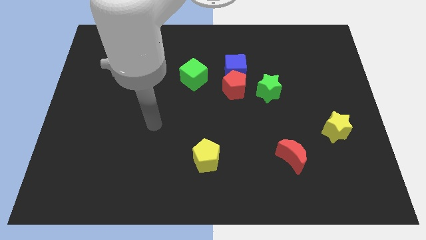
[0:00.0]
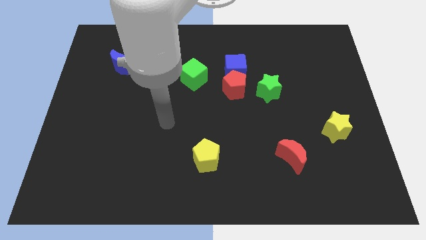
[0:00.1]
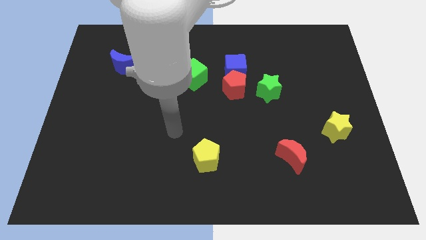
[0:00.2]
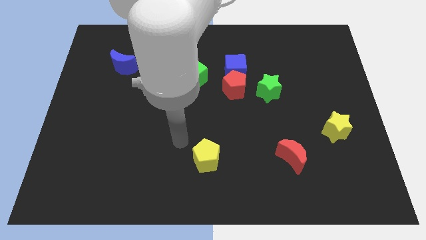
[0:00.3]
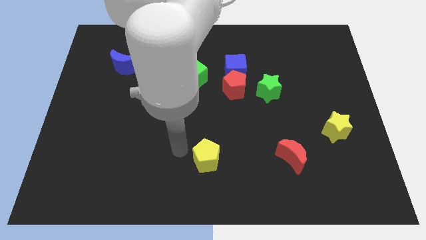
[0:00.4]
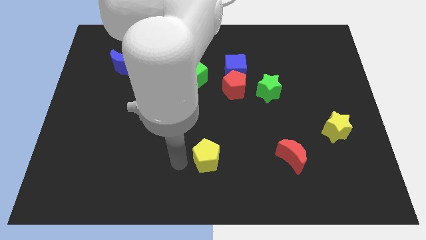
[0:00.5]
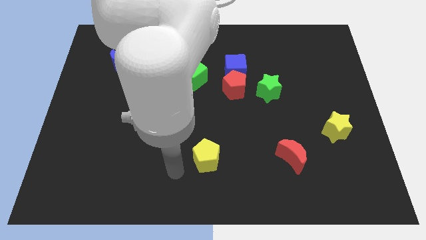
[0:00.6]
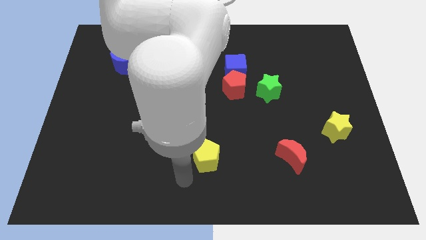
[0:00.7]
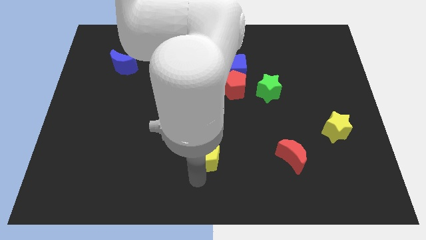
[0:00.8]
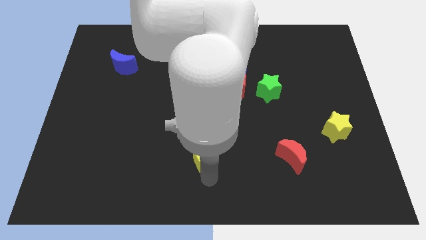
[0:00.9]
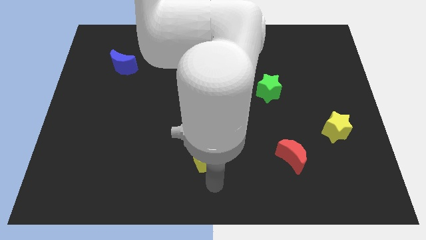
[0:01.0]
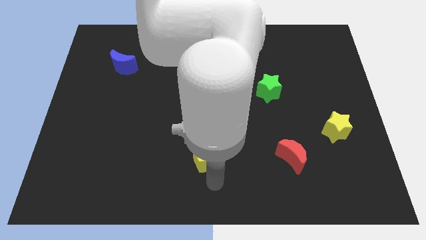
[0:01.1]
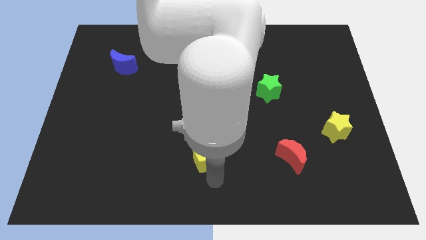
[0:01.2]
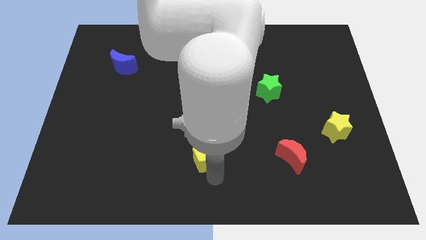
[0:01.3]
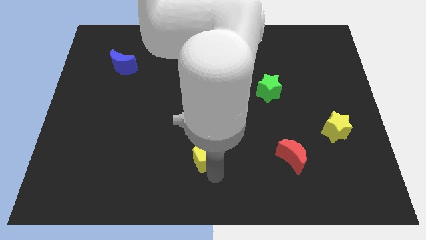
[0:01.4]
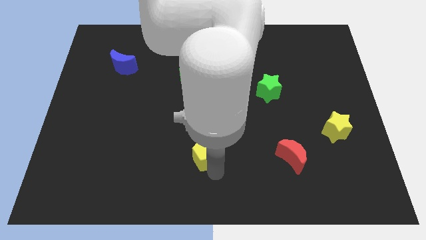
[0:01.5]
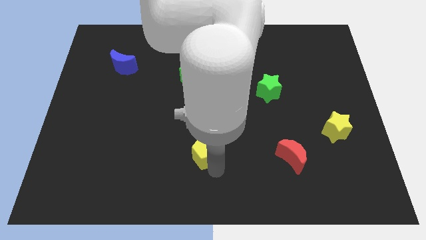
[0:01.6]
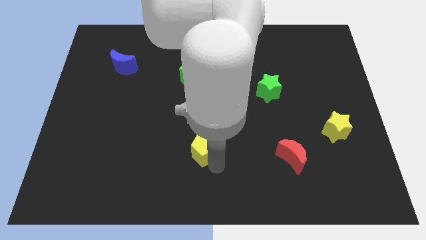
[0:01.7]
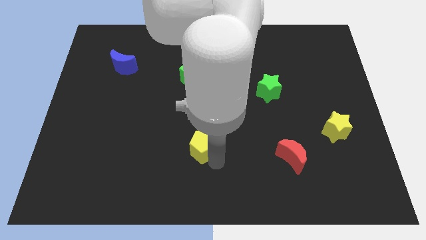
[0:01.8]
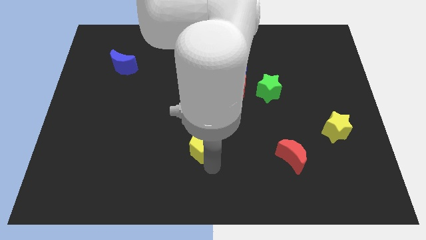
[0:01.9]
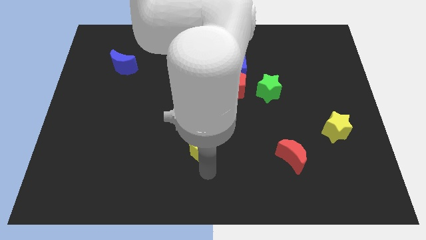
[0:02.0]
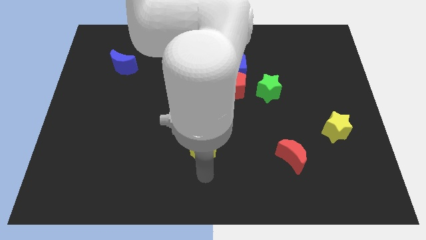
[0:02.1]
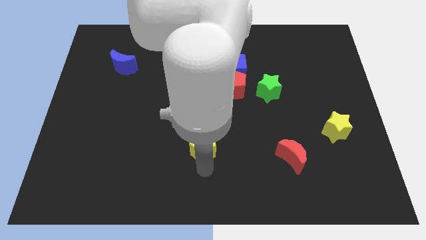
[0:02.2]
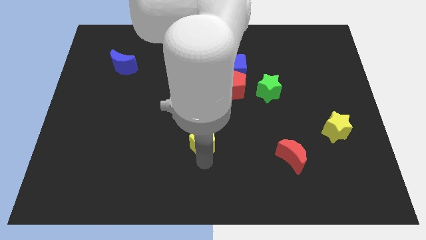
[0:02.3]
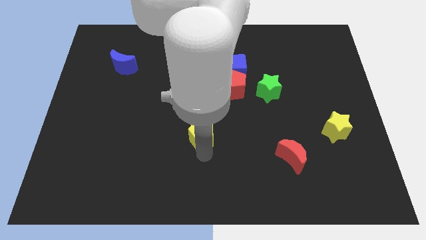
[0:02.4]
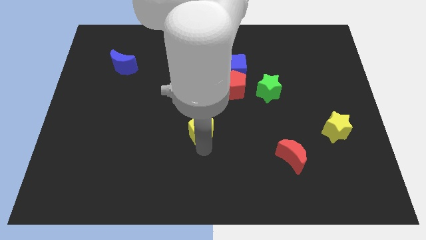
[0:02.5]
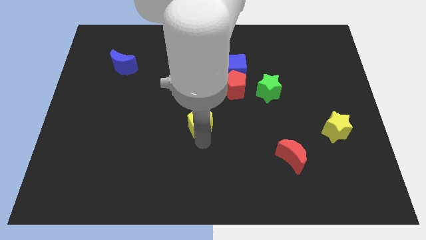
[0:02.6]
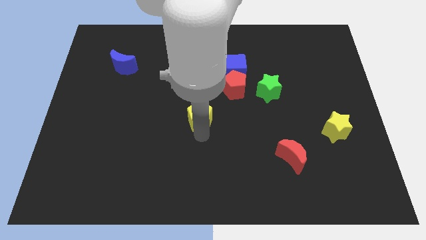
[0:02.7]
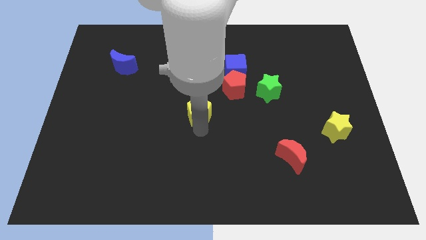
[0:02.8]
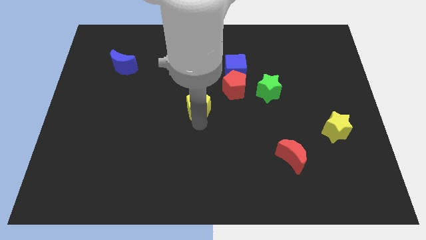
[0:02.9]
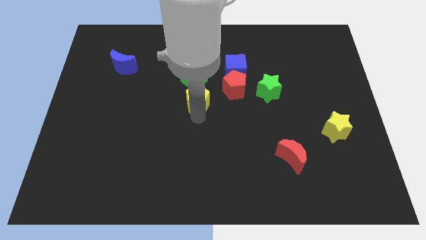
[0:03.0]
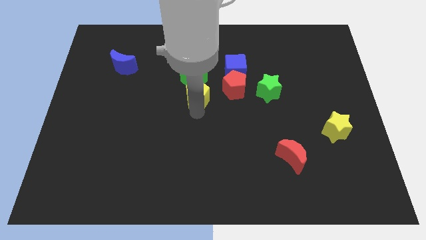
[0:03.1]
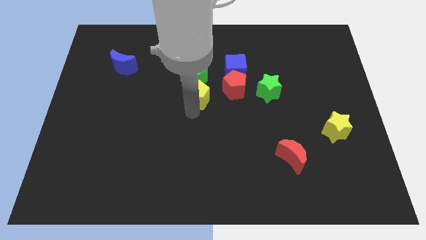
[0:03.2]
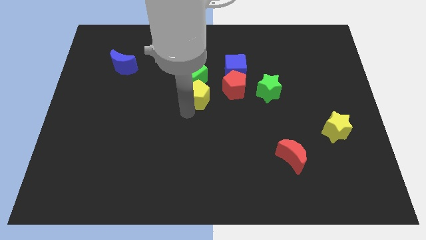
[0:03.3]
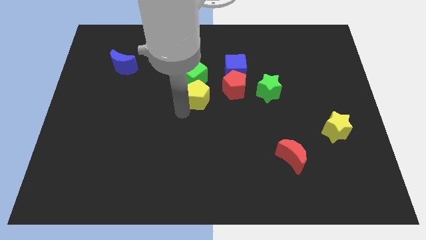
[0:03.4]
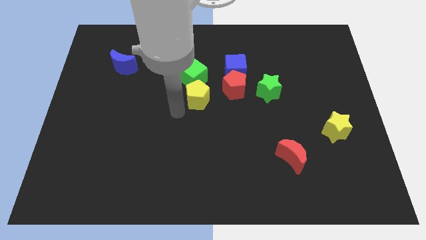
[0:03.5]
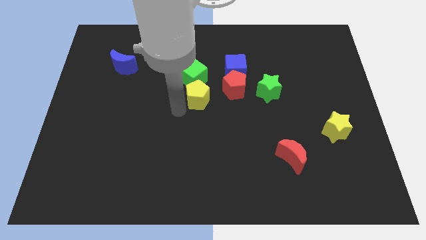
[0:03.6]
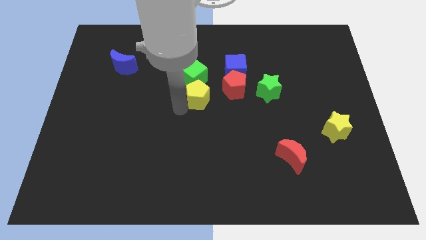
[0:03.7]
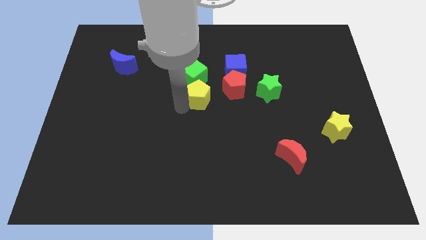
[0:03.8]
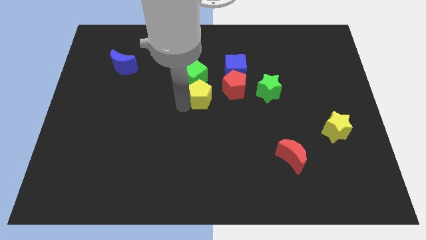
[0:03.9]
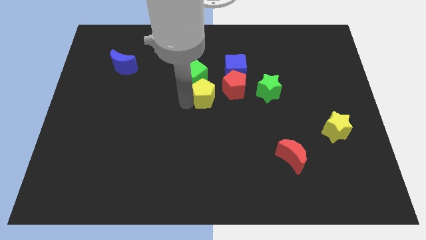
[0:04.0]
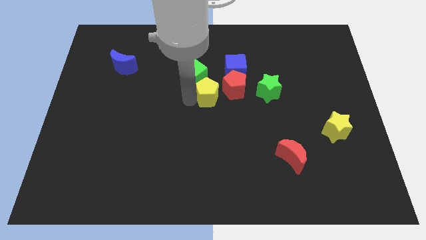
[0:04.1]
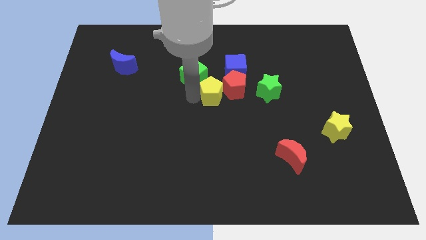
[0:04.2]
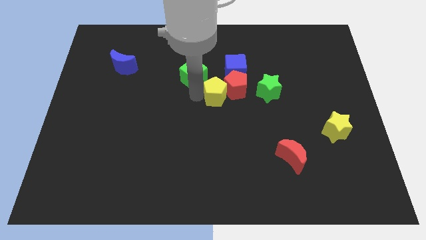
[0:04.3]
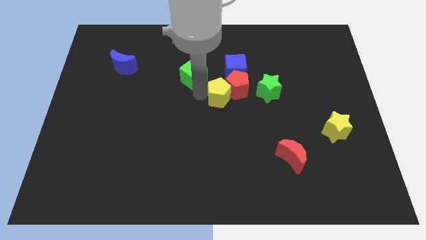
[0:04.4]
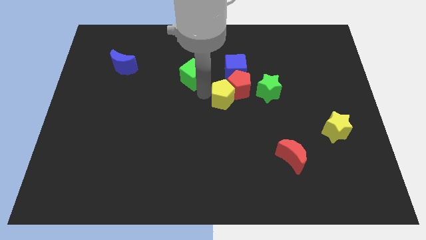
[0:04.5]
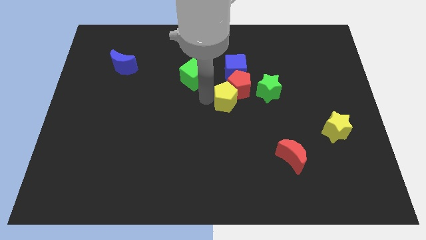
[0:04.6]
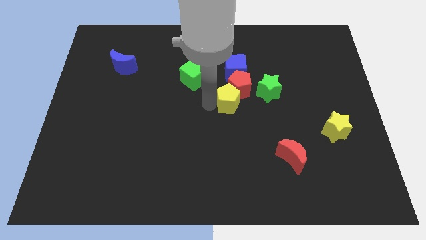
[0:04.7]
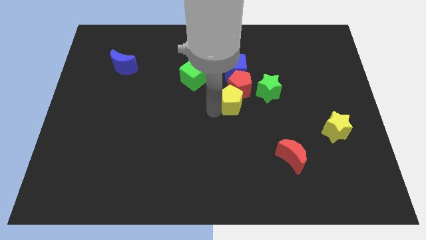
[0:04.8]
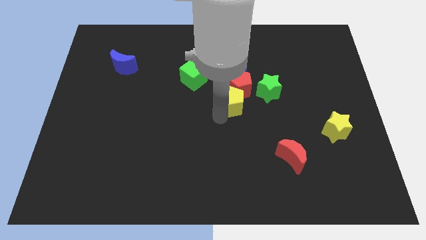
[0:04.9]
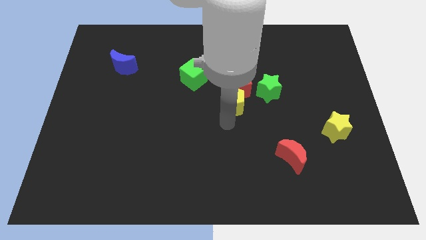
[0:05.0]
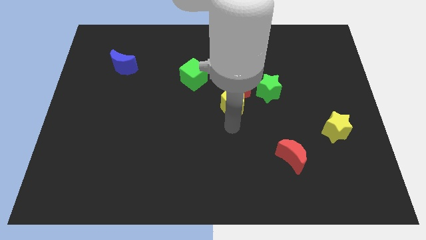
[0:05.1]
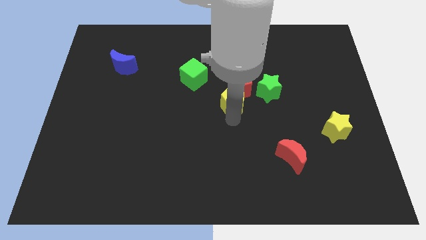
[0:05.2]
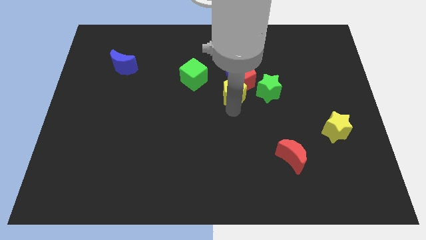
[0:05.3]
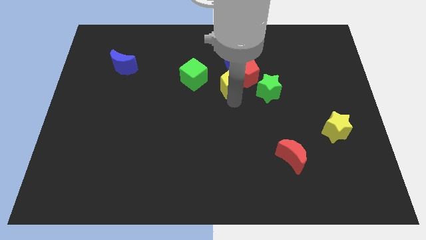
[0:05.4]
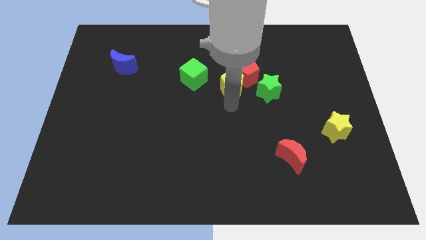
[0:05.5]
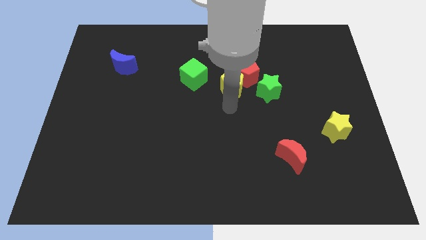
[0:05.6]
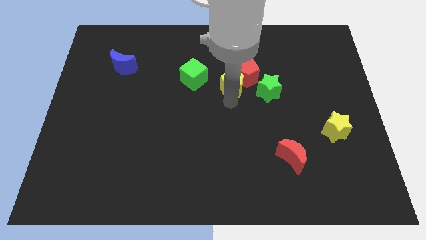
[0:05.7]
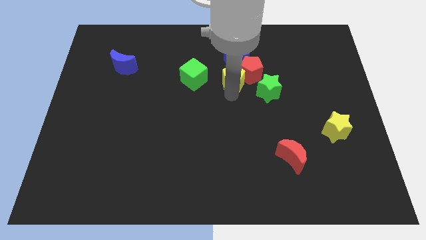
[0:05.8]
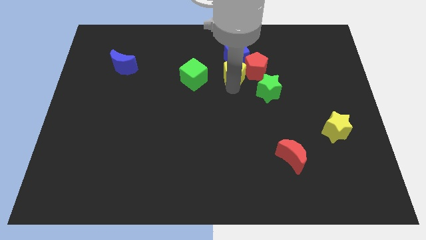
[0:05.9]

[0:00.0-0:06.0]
push the yellow pentagon close to the blue cube

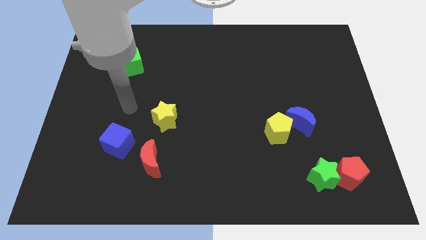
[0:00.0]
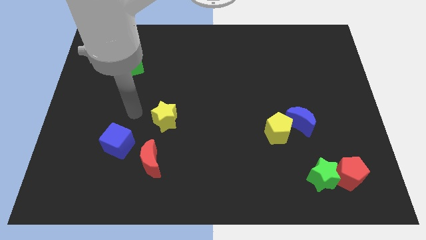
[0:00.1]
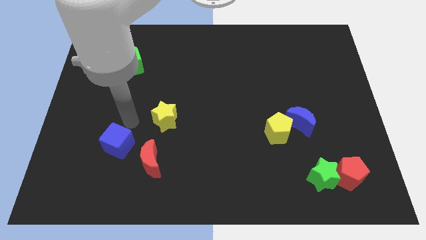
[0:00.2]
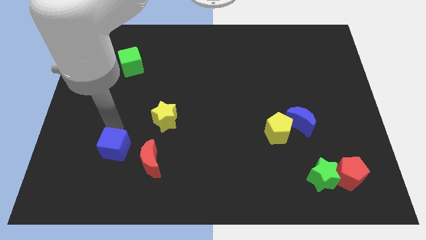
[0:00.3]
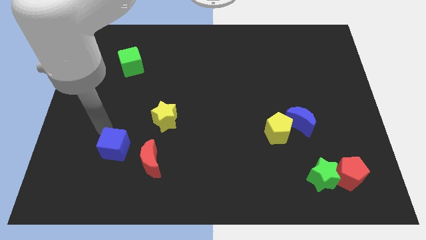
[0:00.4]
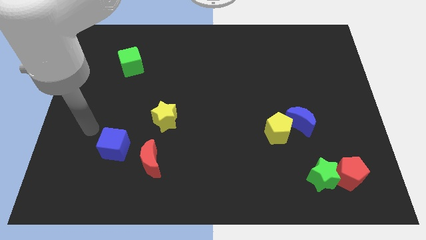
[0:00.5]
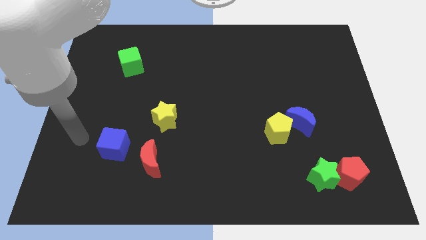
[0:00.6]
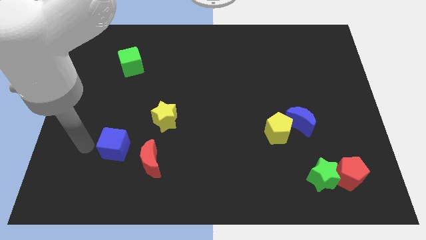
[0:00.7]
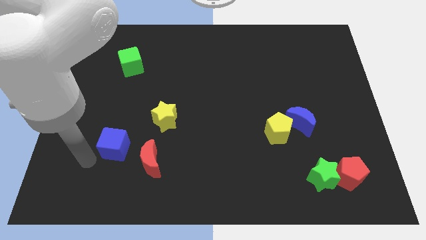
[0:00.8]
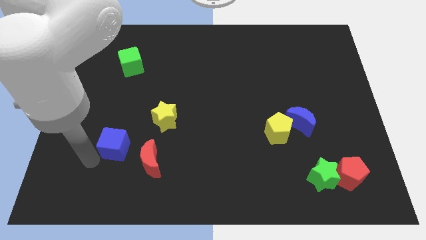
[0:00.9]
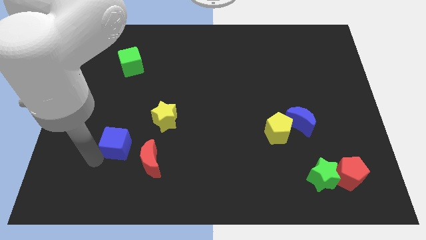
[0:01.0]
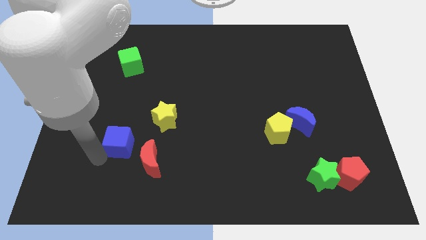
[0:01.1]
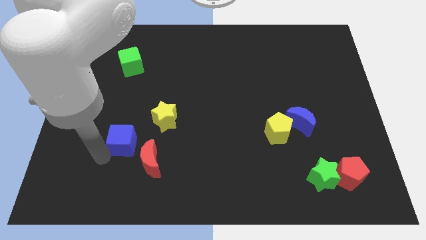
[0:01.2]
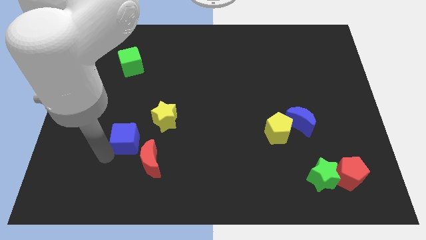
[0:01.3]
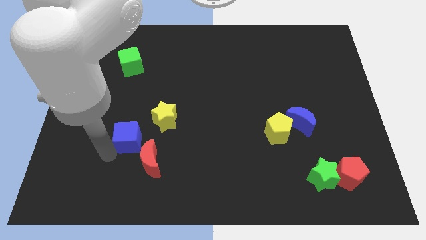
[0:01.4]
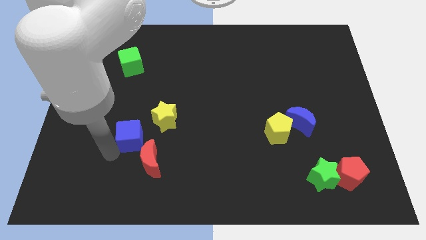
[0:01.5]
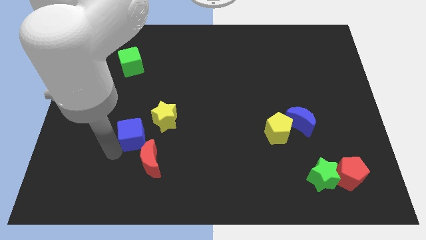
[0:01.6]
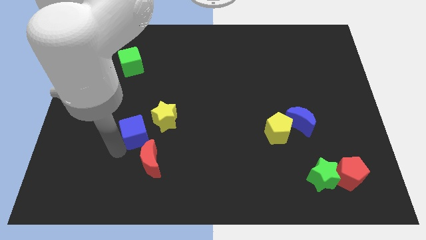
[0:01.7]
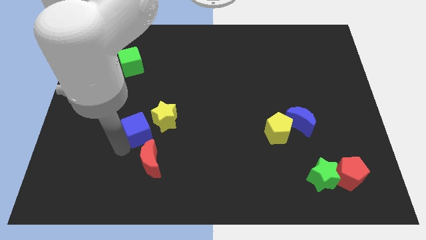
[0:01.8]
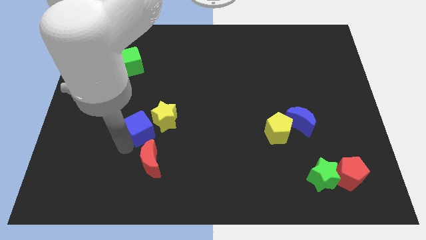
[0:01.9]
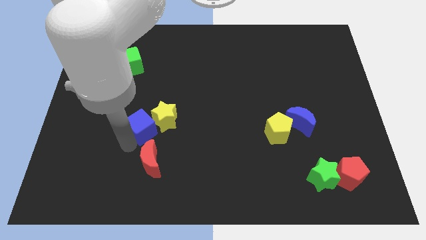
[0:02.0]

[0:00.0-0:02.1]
push the blue cube close to the yellow star
